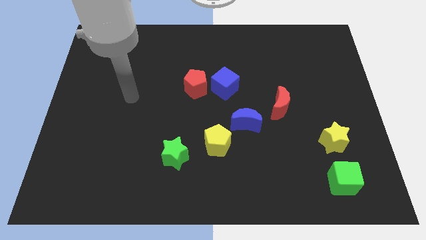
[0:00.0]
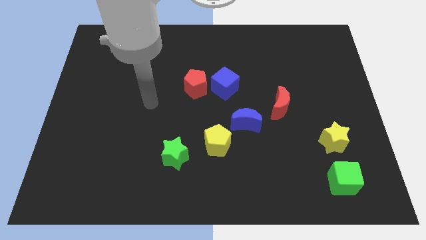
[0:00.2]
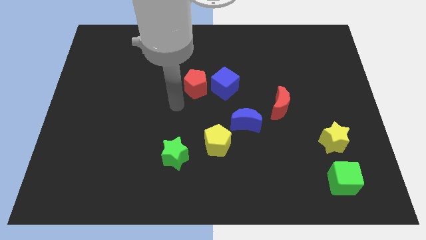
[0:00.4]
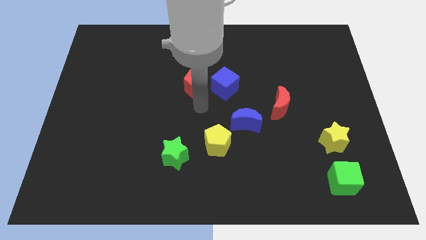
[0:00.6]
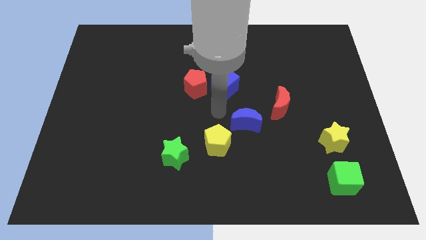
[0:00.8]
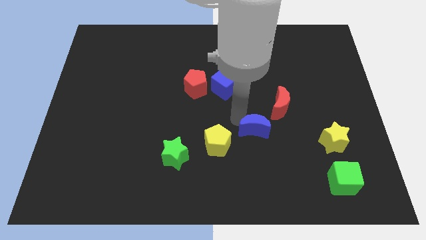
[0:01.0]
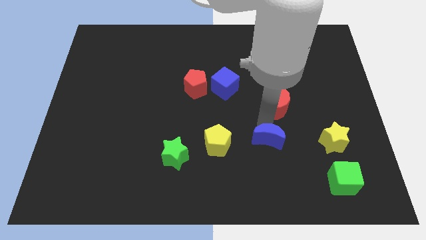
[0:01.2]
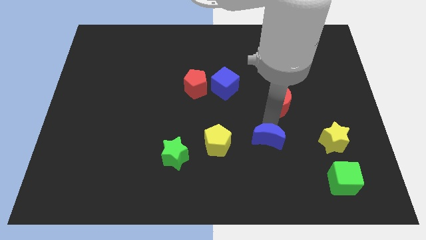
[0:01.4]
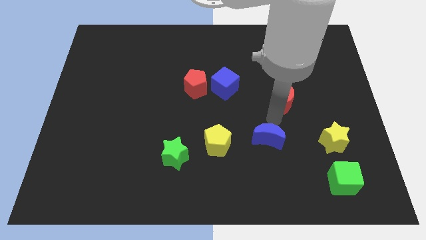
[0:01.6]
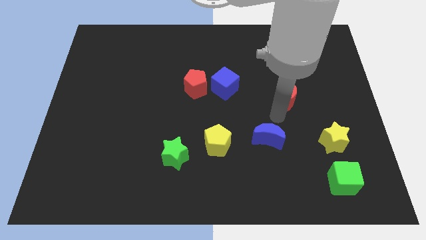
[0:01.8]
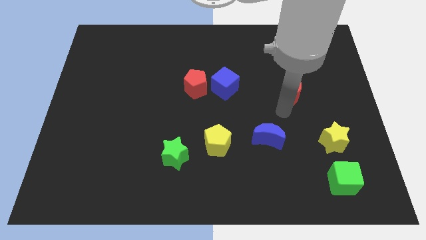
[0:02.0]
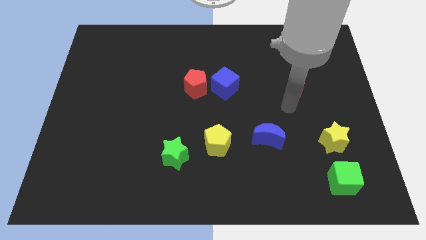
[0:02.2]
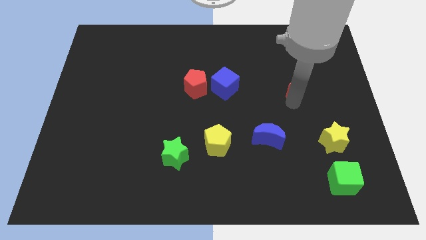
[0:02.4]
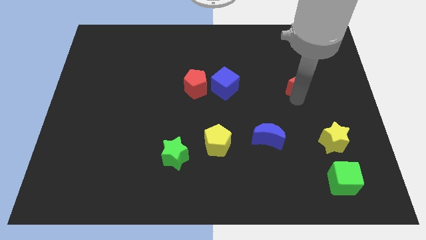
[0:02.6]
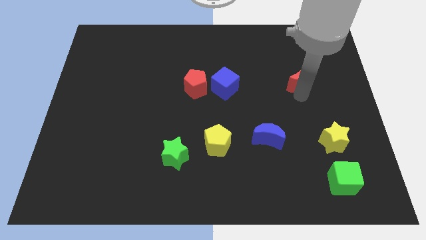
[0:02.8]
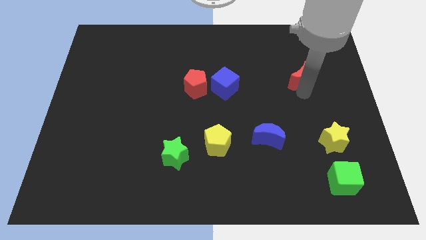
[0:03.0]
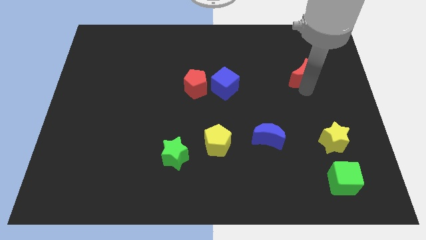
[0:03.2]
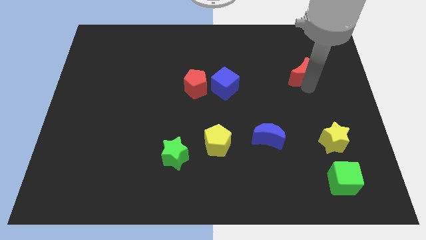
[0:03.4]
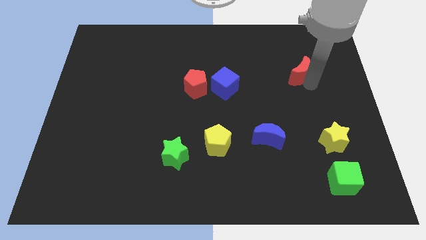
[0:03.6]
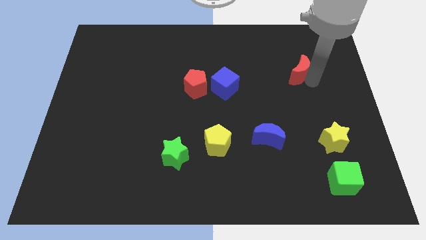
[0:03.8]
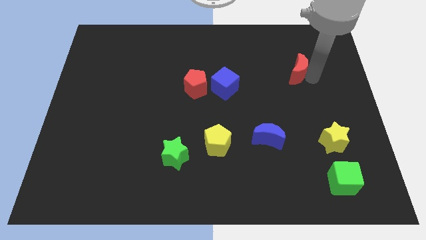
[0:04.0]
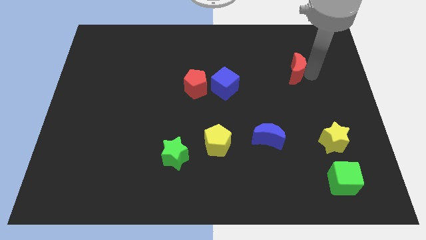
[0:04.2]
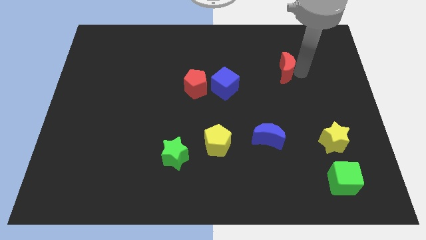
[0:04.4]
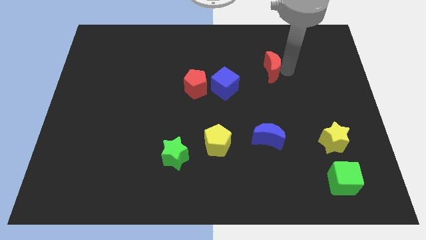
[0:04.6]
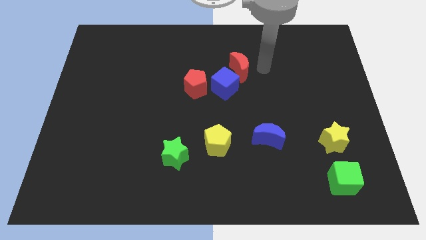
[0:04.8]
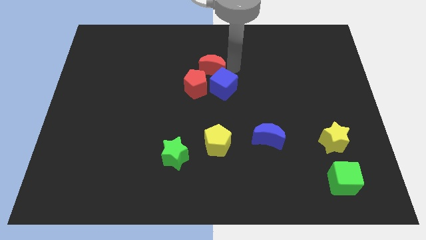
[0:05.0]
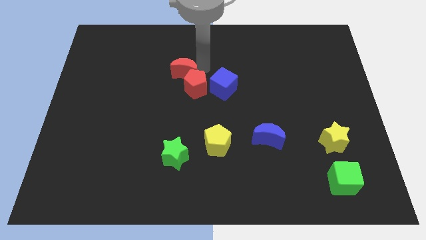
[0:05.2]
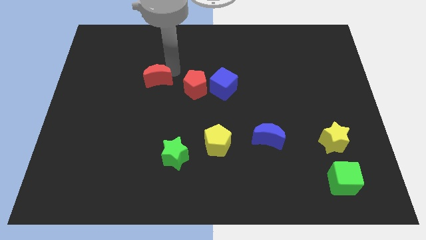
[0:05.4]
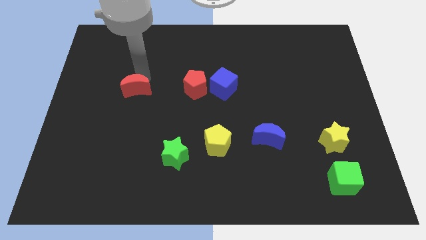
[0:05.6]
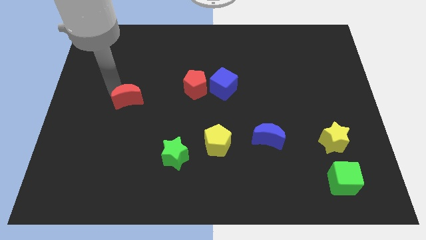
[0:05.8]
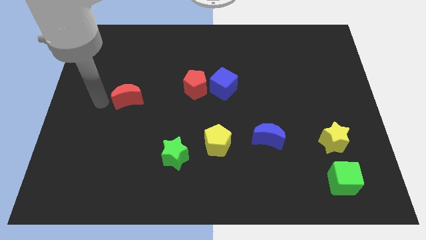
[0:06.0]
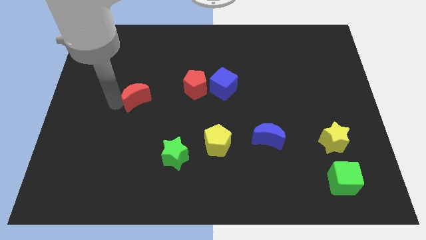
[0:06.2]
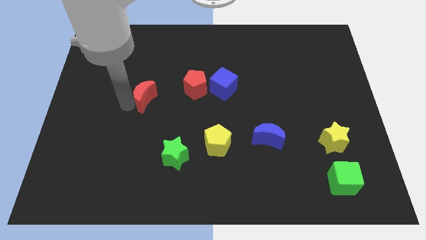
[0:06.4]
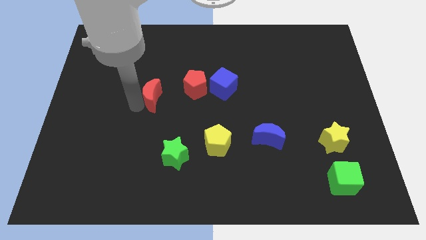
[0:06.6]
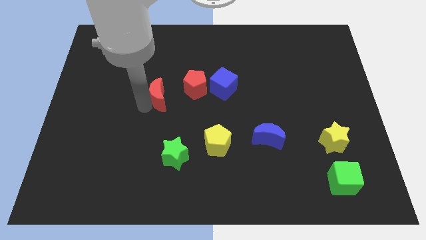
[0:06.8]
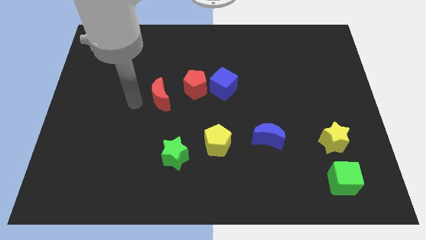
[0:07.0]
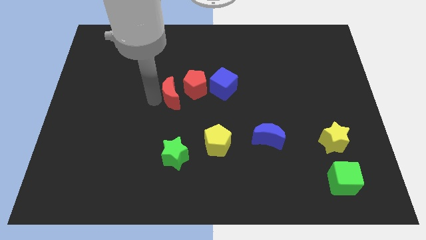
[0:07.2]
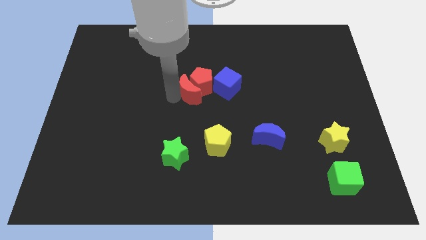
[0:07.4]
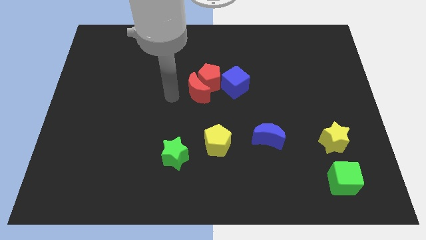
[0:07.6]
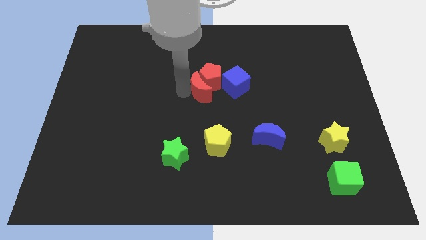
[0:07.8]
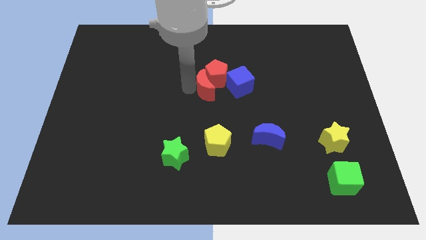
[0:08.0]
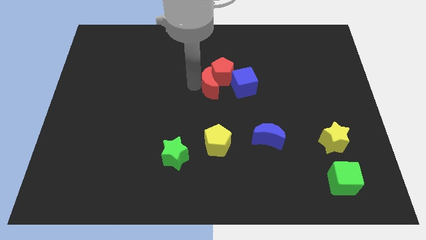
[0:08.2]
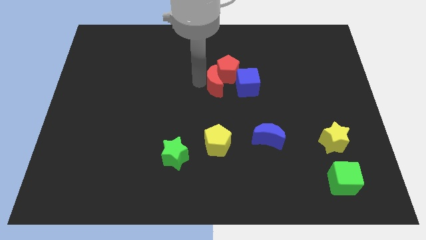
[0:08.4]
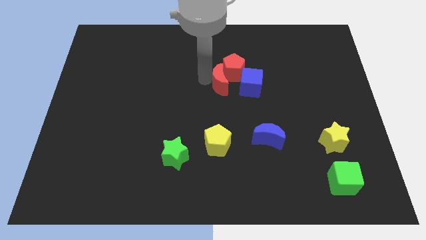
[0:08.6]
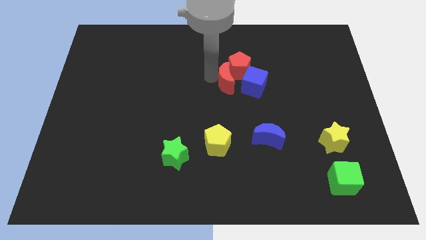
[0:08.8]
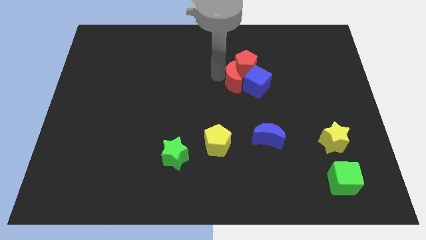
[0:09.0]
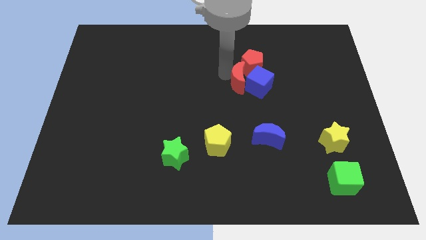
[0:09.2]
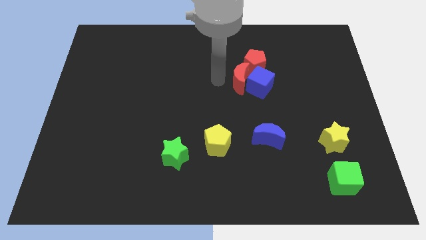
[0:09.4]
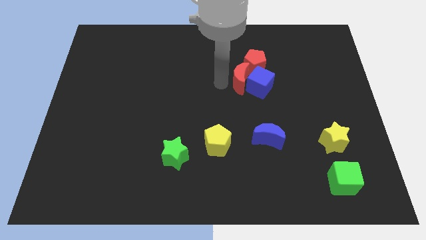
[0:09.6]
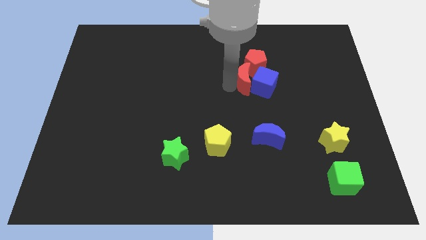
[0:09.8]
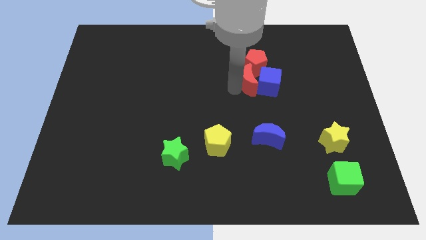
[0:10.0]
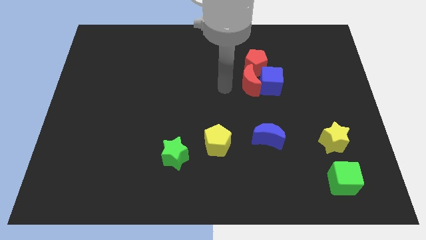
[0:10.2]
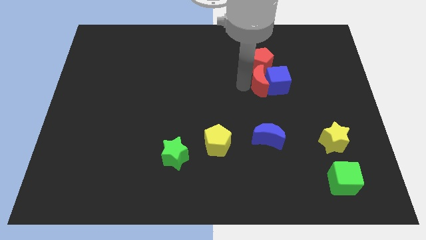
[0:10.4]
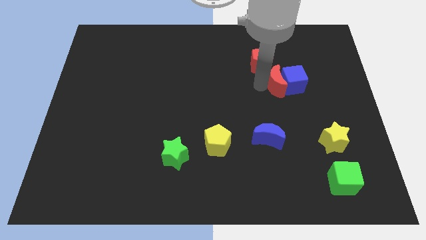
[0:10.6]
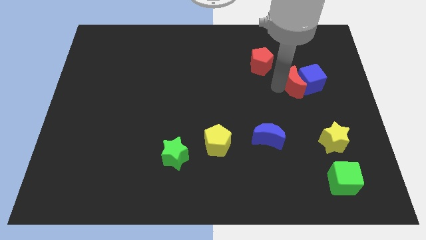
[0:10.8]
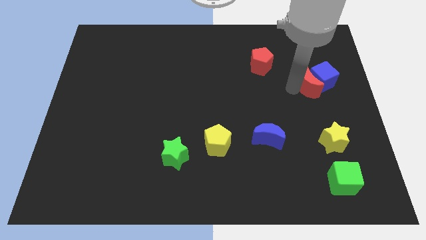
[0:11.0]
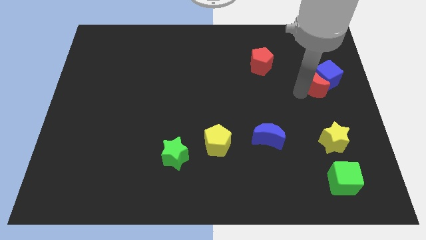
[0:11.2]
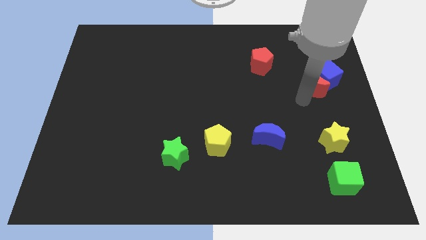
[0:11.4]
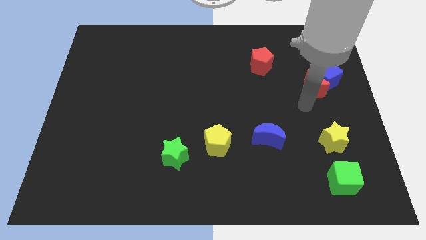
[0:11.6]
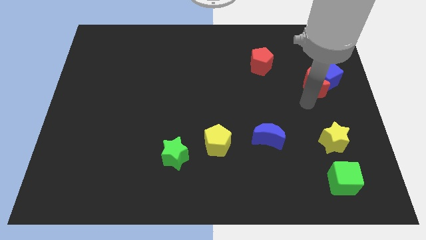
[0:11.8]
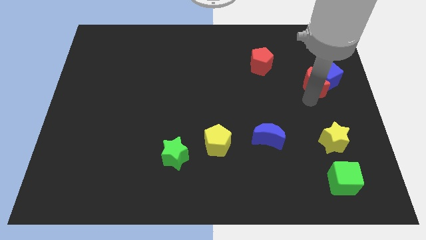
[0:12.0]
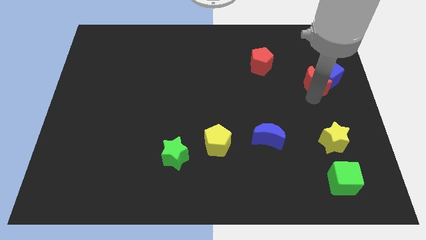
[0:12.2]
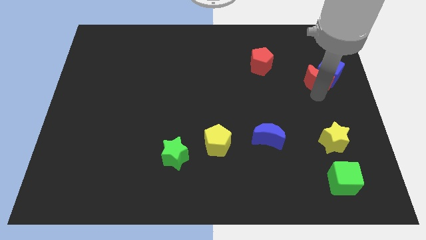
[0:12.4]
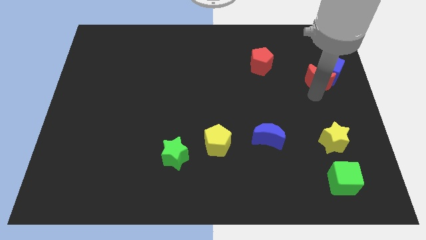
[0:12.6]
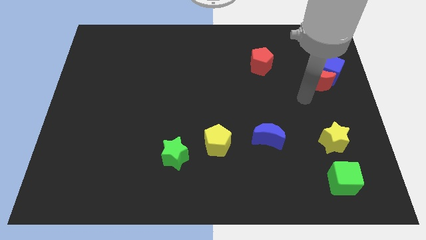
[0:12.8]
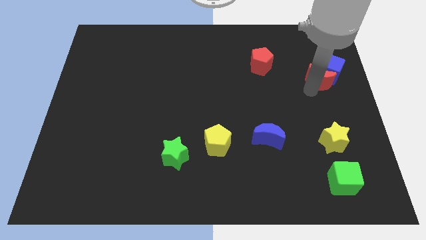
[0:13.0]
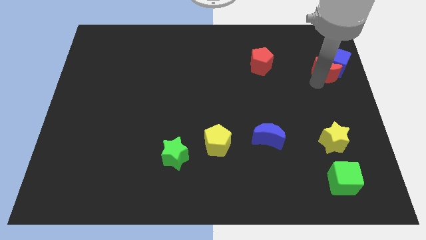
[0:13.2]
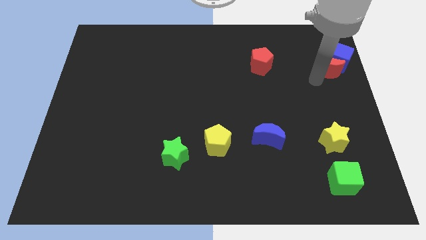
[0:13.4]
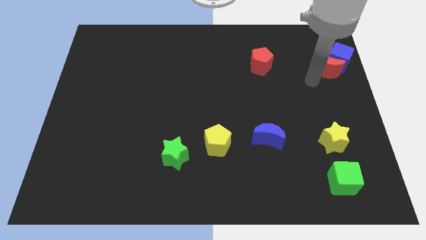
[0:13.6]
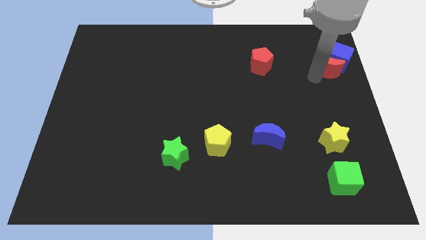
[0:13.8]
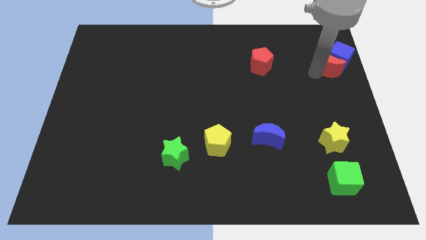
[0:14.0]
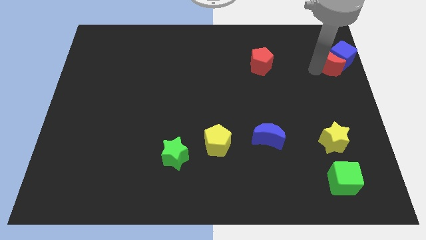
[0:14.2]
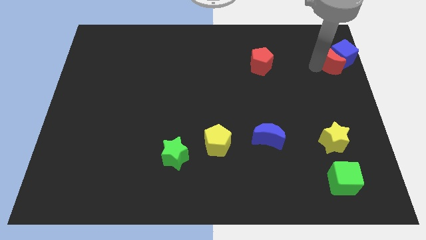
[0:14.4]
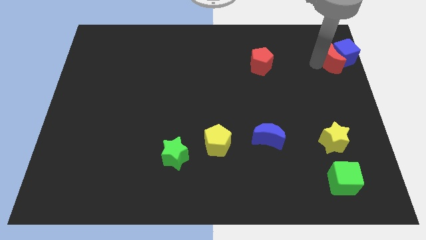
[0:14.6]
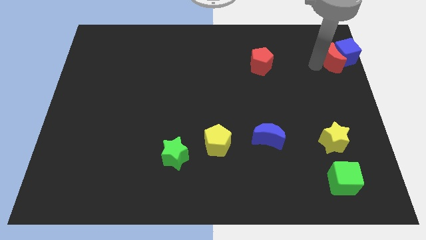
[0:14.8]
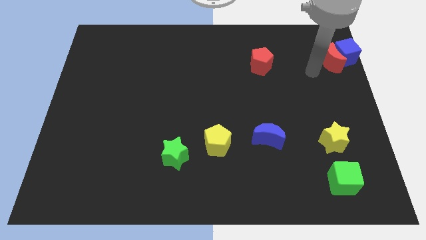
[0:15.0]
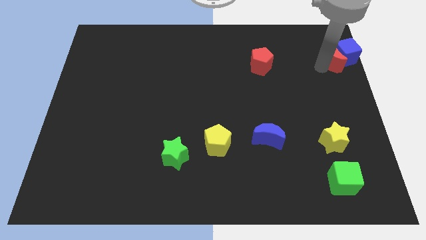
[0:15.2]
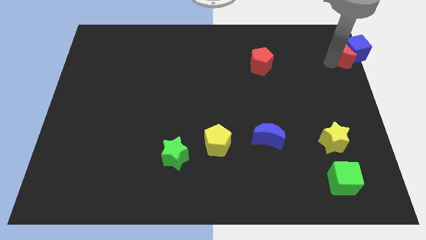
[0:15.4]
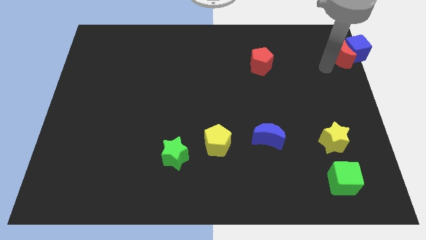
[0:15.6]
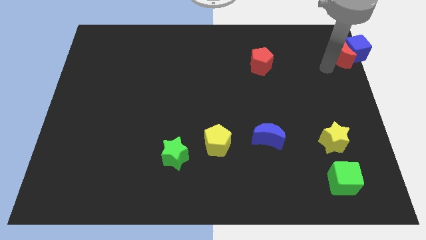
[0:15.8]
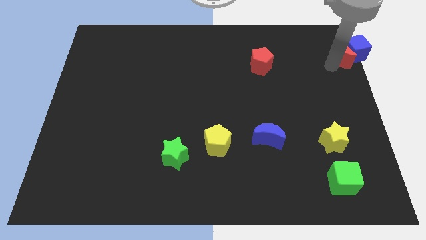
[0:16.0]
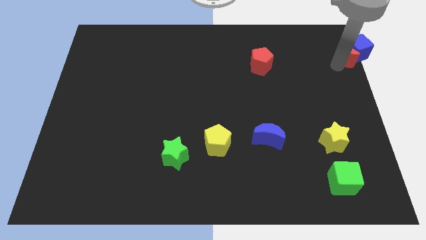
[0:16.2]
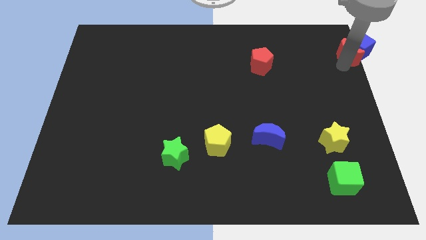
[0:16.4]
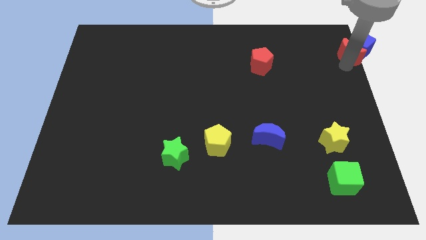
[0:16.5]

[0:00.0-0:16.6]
slide the red moon to the top right corner
